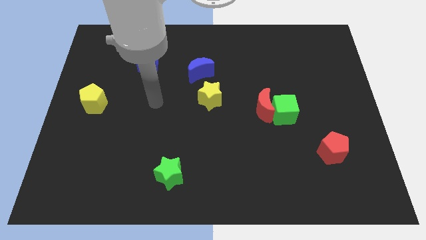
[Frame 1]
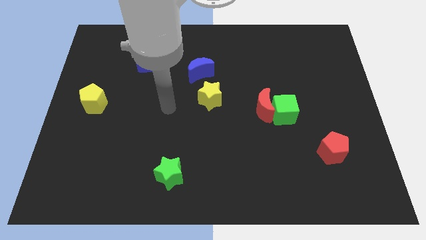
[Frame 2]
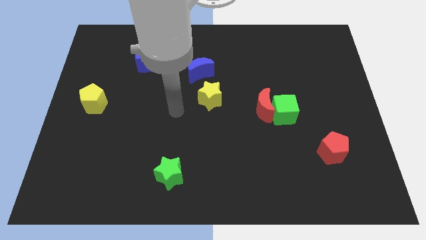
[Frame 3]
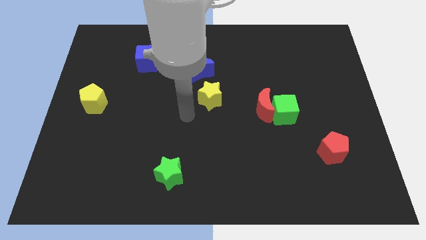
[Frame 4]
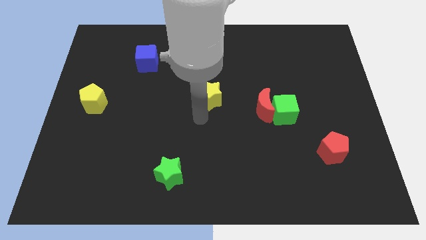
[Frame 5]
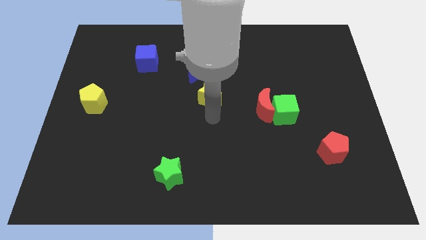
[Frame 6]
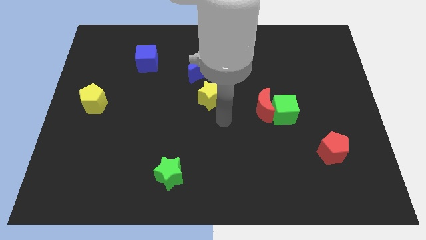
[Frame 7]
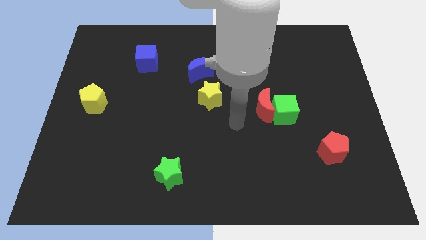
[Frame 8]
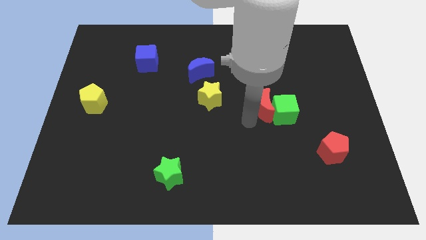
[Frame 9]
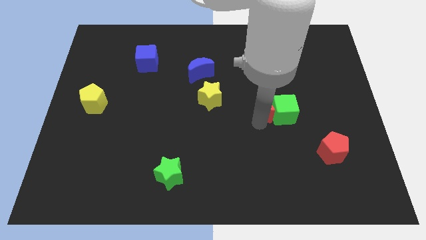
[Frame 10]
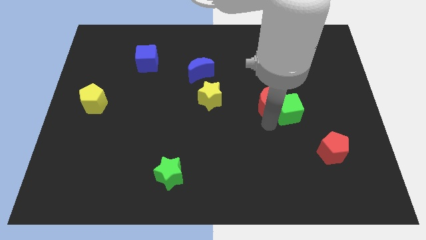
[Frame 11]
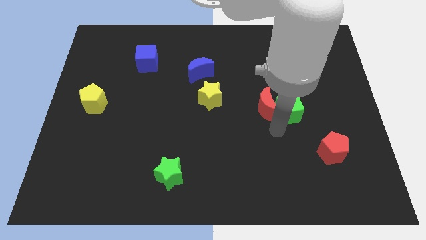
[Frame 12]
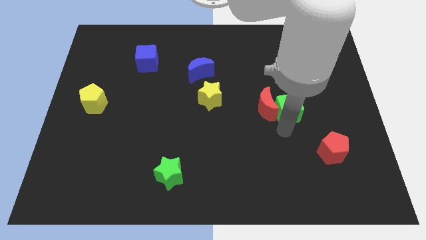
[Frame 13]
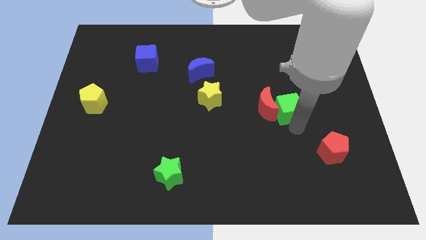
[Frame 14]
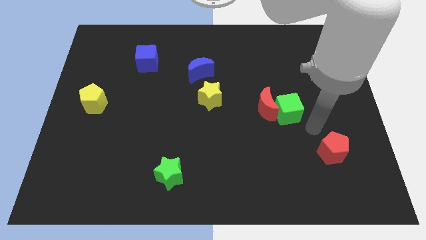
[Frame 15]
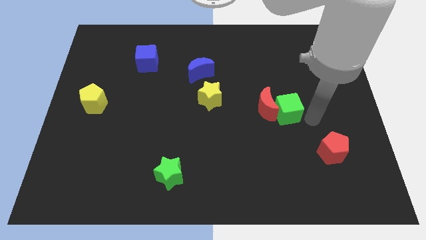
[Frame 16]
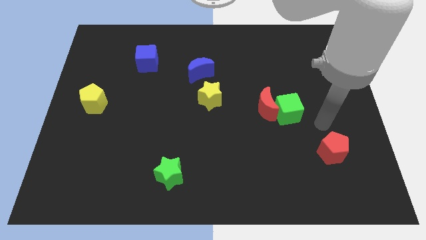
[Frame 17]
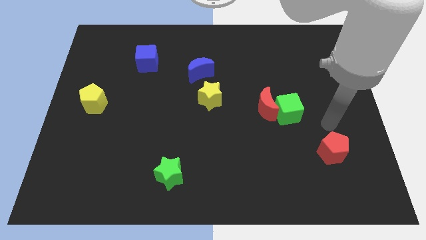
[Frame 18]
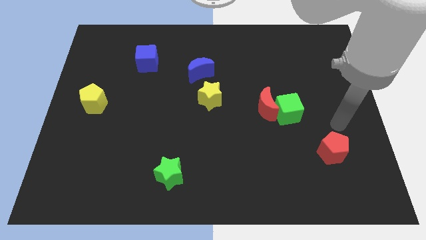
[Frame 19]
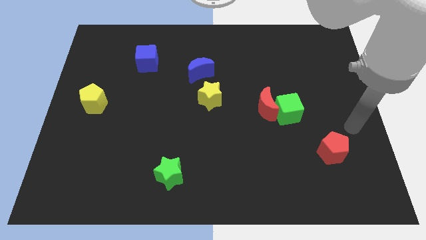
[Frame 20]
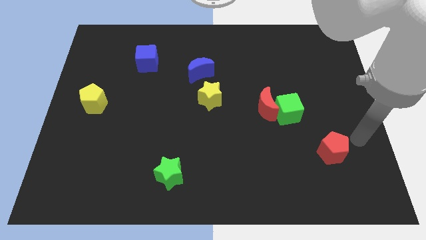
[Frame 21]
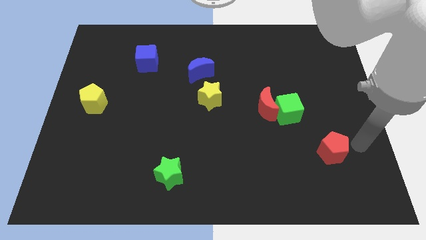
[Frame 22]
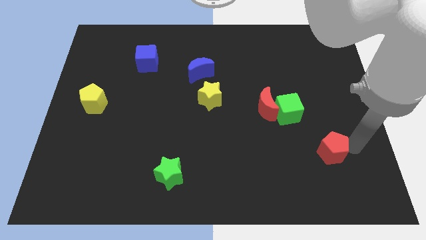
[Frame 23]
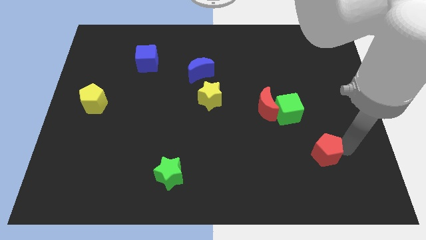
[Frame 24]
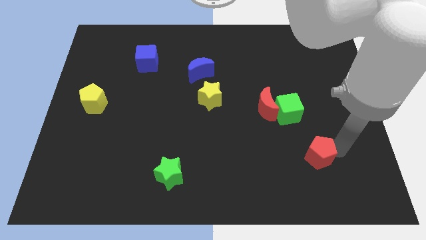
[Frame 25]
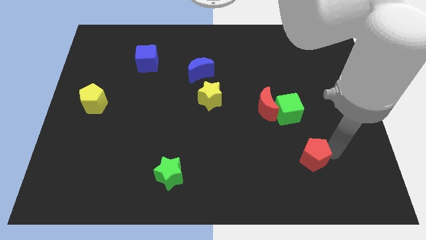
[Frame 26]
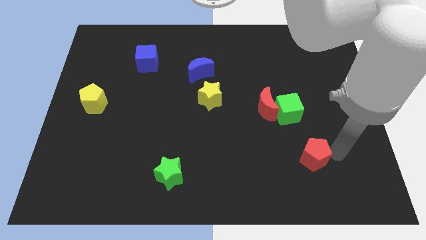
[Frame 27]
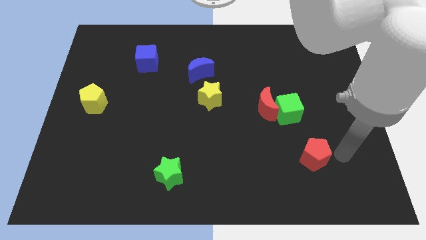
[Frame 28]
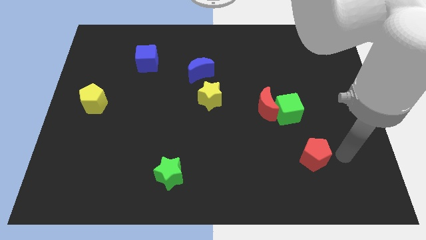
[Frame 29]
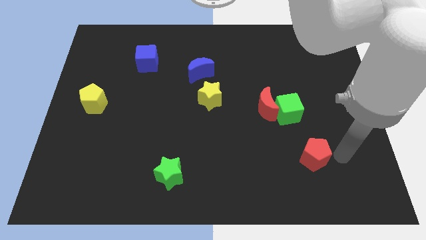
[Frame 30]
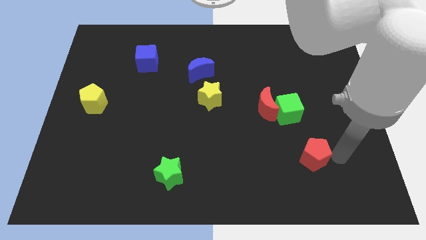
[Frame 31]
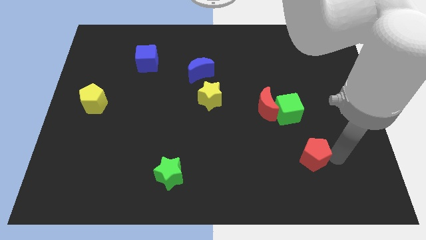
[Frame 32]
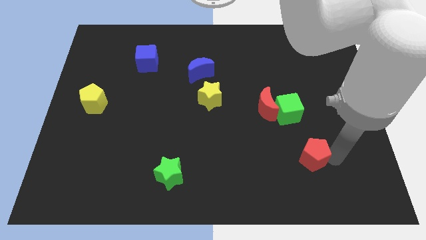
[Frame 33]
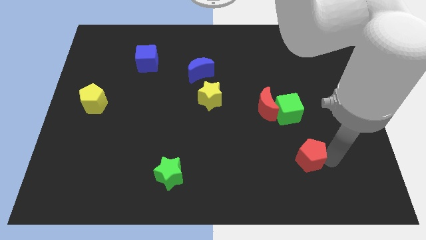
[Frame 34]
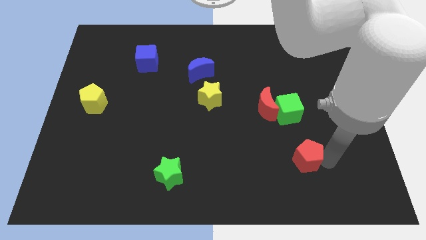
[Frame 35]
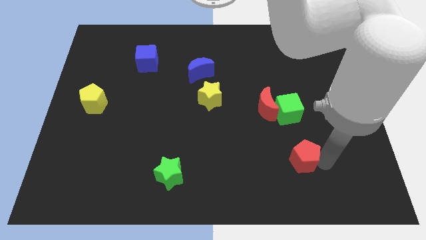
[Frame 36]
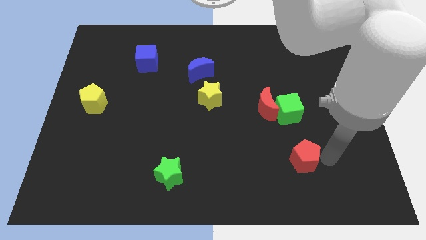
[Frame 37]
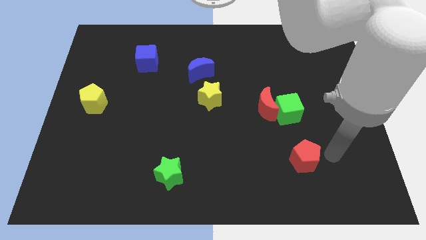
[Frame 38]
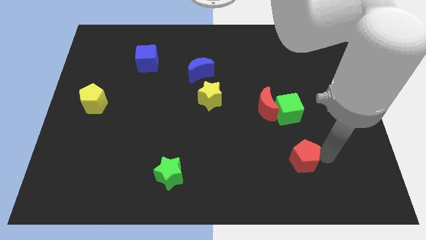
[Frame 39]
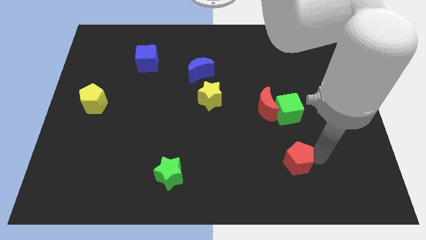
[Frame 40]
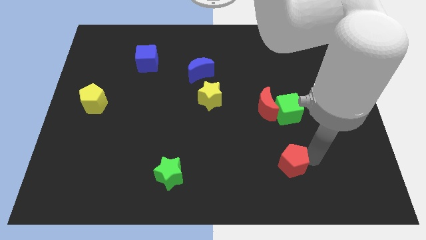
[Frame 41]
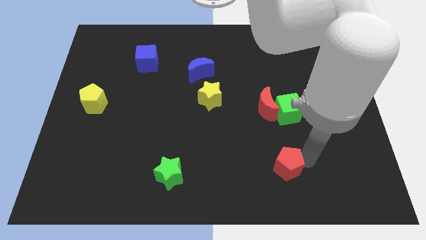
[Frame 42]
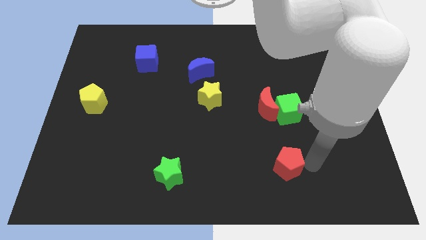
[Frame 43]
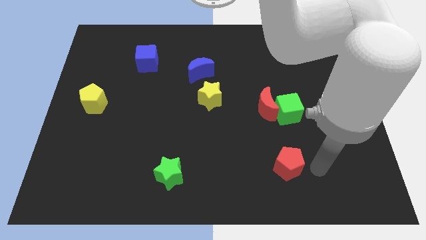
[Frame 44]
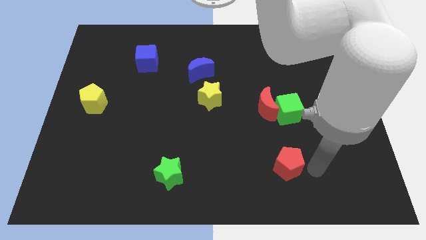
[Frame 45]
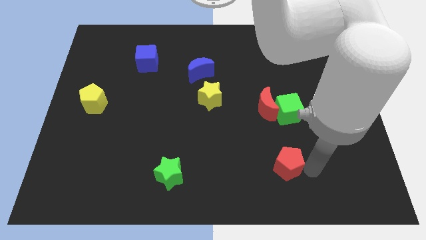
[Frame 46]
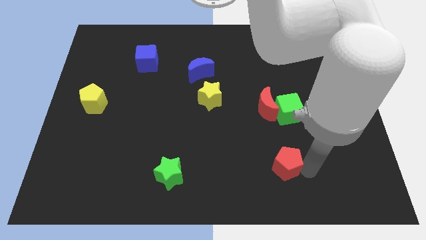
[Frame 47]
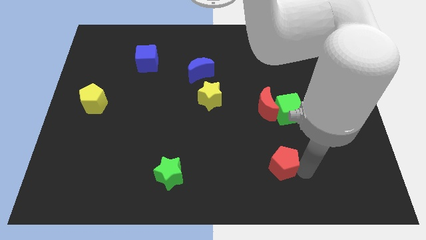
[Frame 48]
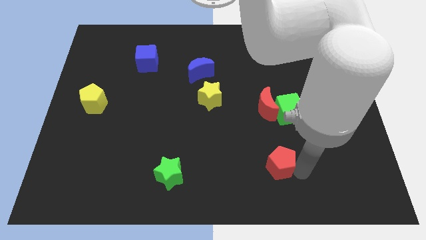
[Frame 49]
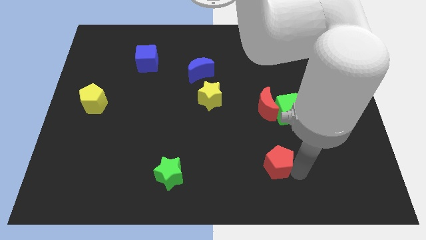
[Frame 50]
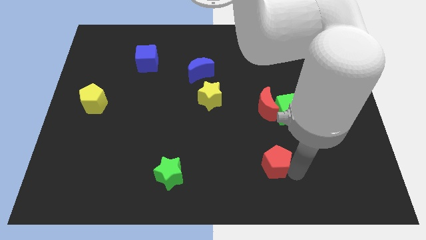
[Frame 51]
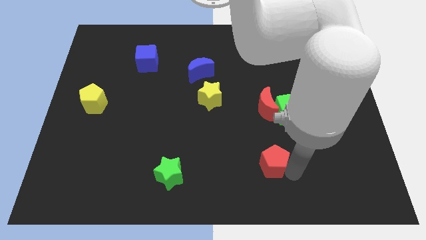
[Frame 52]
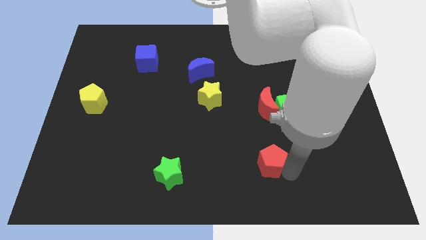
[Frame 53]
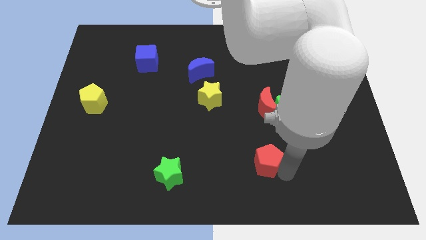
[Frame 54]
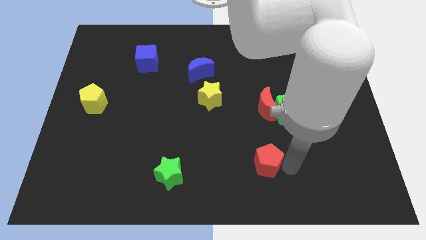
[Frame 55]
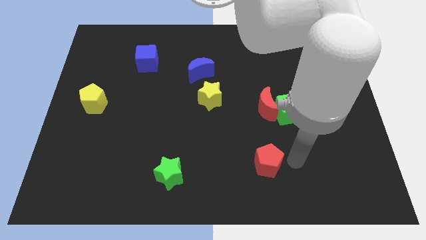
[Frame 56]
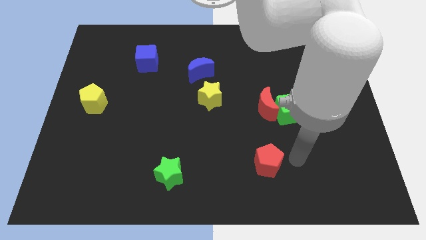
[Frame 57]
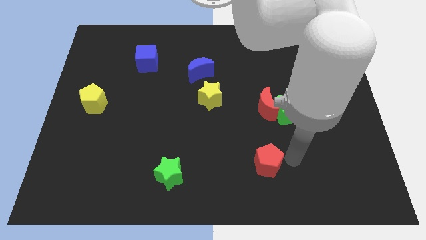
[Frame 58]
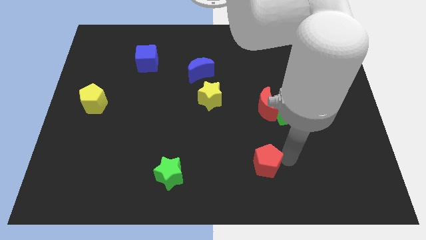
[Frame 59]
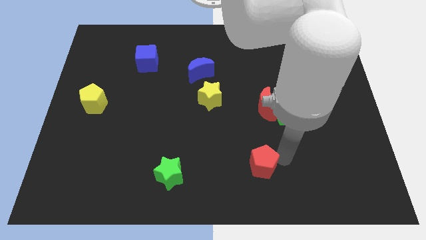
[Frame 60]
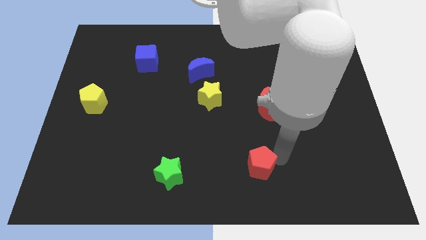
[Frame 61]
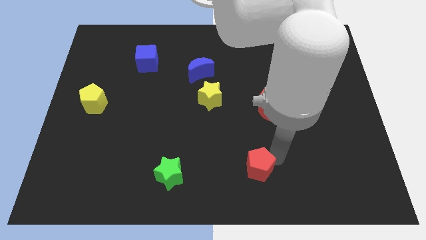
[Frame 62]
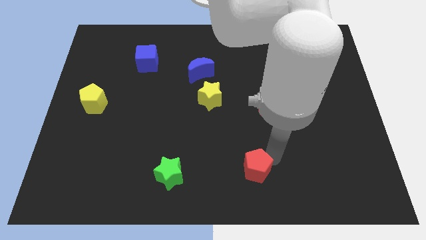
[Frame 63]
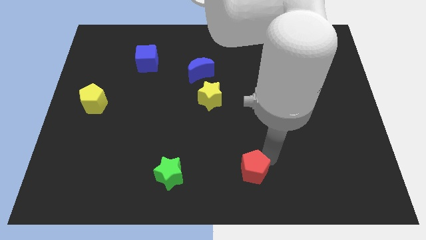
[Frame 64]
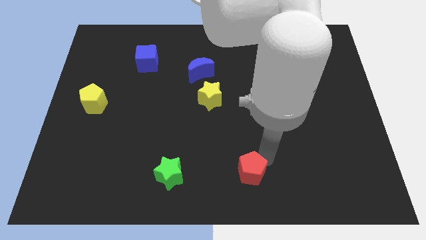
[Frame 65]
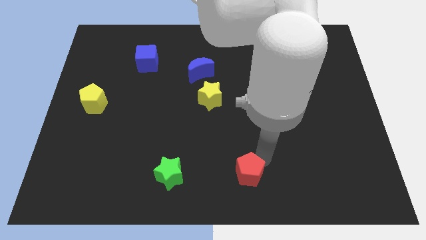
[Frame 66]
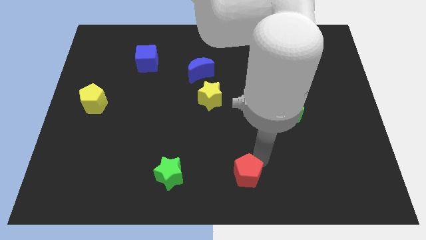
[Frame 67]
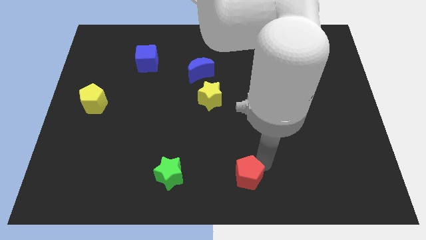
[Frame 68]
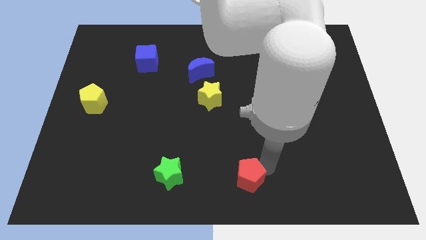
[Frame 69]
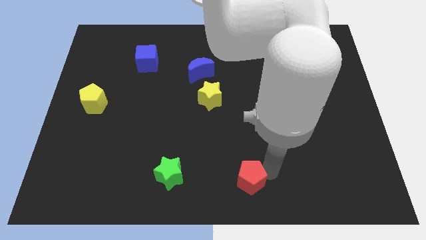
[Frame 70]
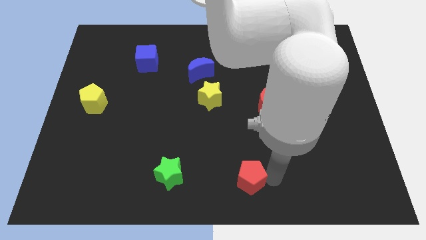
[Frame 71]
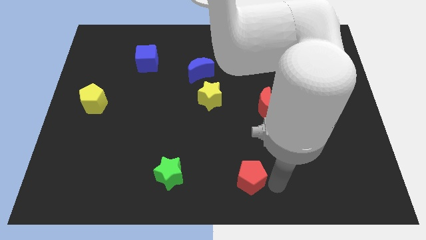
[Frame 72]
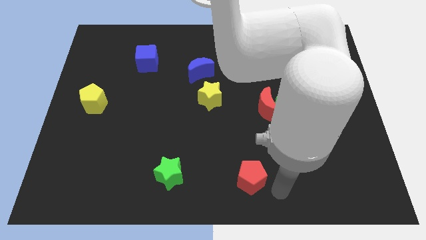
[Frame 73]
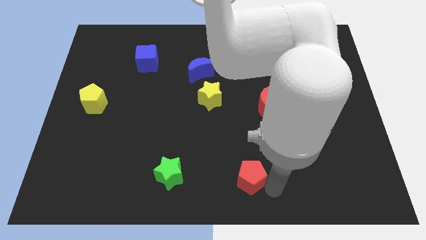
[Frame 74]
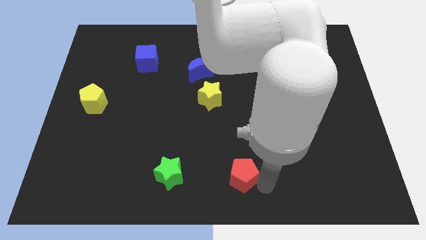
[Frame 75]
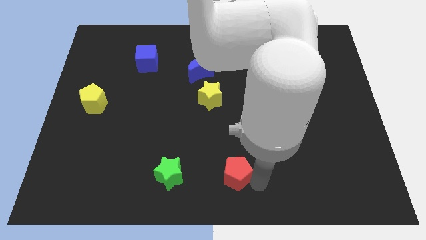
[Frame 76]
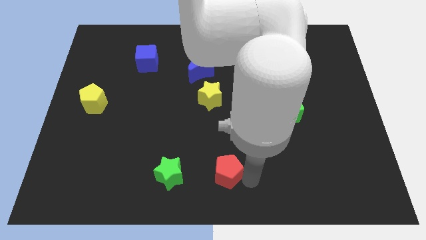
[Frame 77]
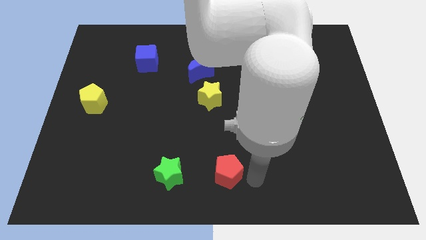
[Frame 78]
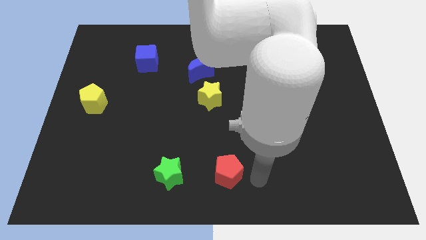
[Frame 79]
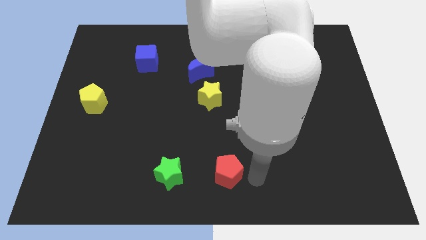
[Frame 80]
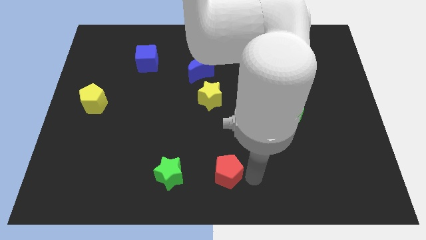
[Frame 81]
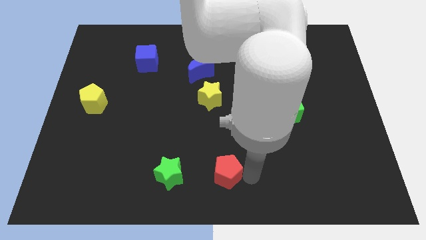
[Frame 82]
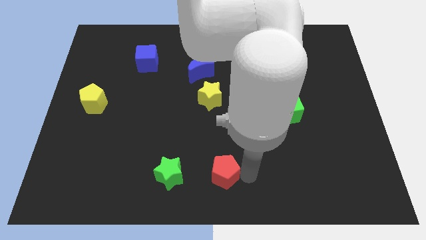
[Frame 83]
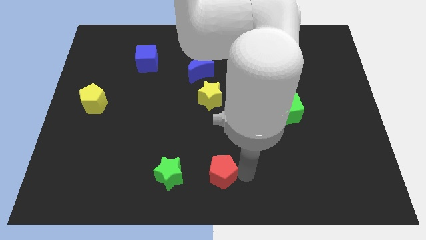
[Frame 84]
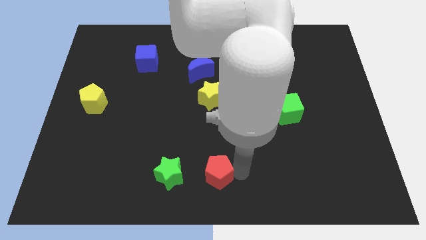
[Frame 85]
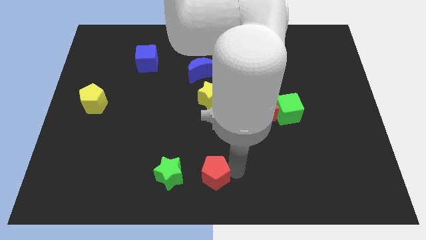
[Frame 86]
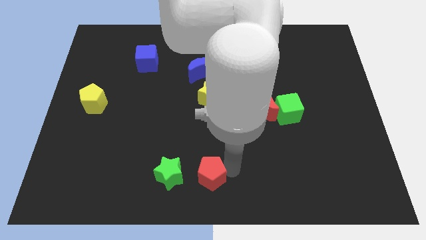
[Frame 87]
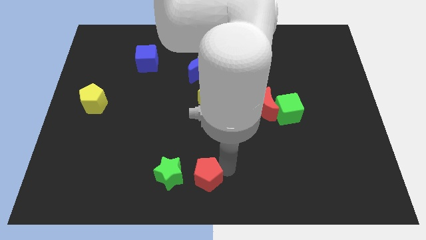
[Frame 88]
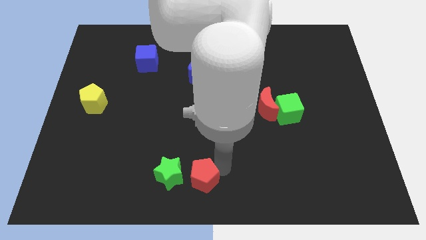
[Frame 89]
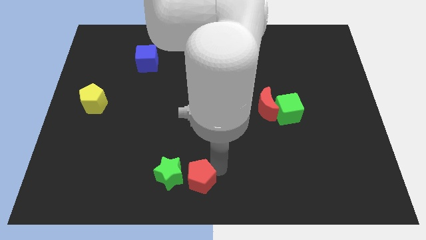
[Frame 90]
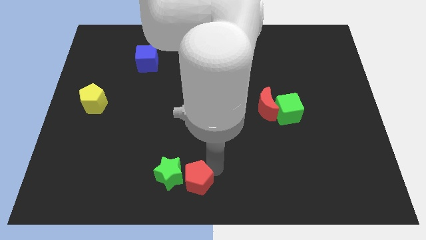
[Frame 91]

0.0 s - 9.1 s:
move the red pentagon close to the green star
